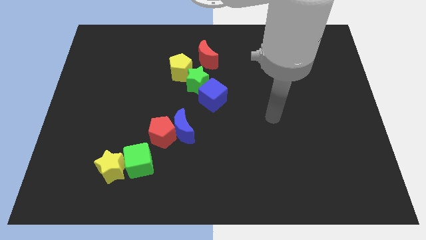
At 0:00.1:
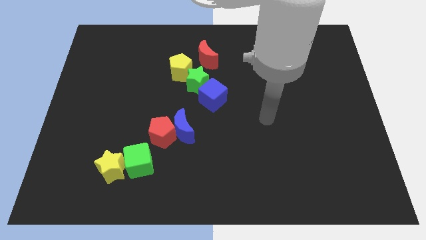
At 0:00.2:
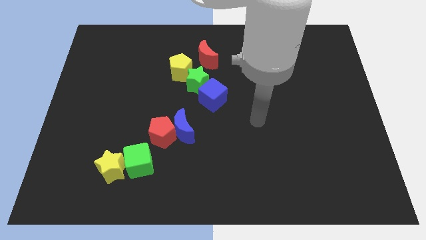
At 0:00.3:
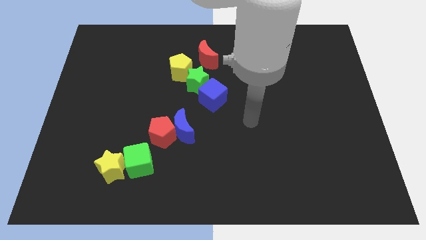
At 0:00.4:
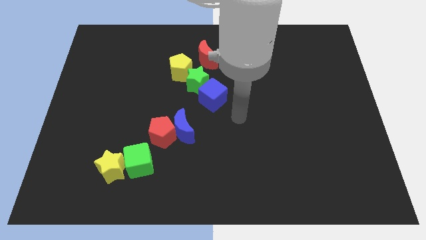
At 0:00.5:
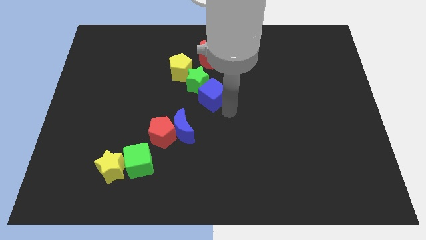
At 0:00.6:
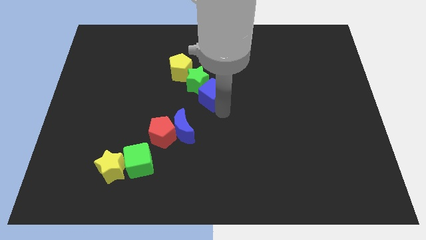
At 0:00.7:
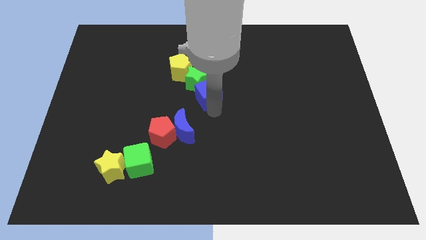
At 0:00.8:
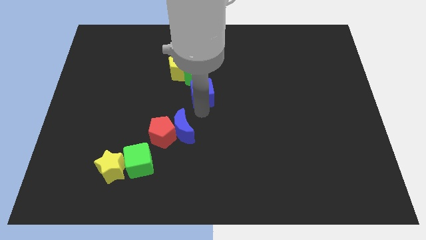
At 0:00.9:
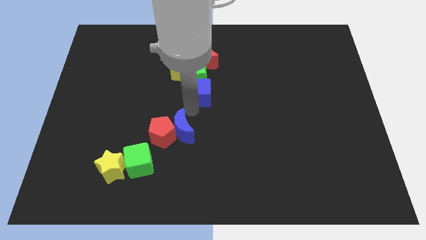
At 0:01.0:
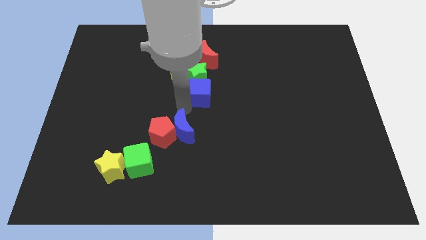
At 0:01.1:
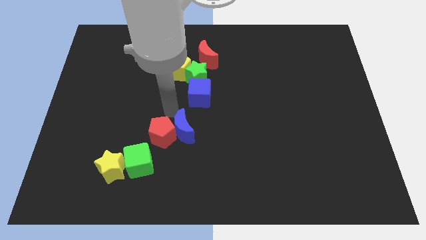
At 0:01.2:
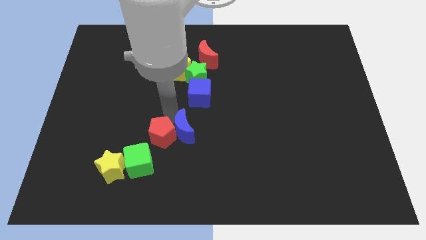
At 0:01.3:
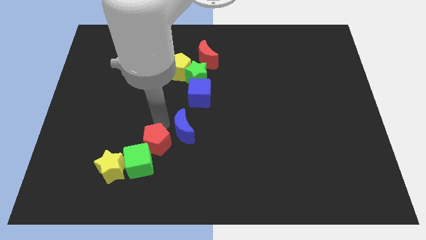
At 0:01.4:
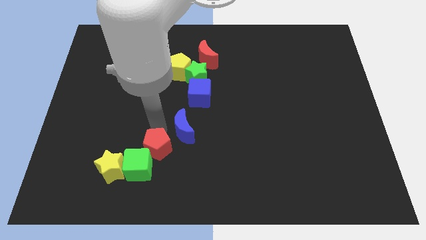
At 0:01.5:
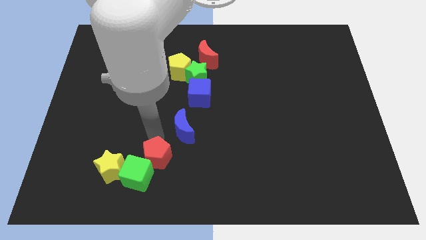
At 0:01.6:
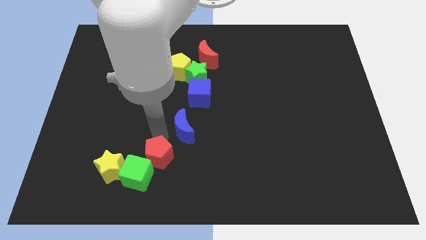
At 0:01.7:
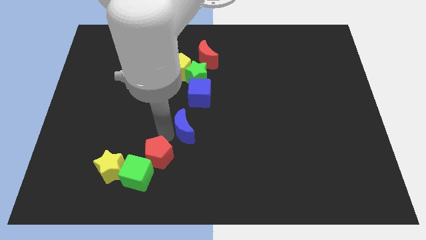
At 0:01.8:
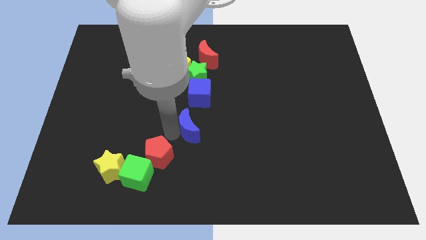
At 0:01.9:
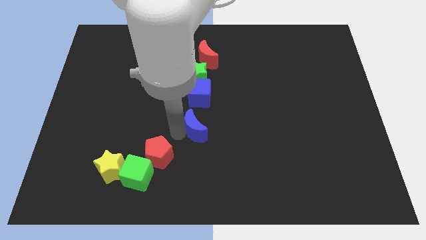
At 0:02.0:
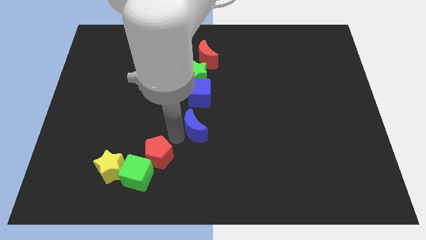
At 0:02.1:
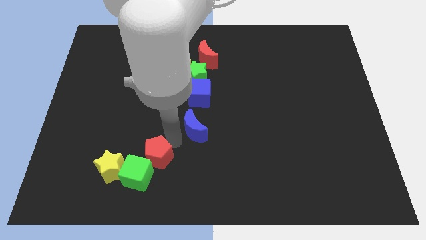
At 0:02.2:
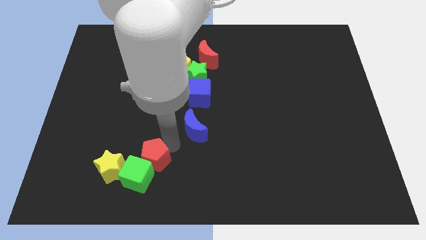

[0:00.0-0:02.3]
separate the blue moon from the red pentagon

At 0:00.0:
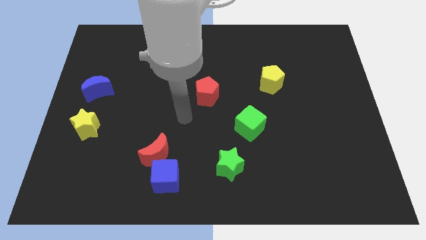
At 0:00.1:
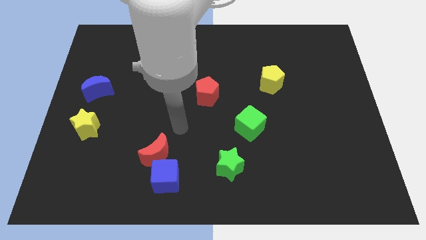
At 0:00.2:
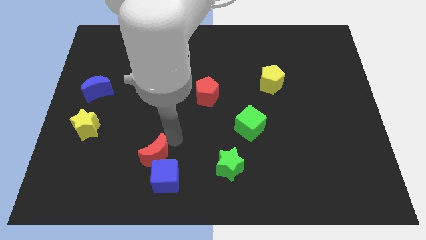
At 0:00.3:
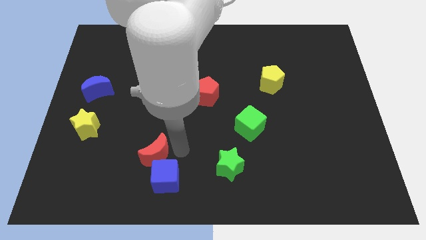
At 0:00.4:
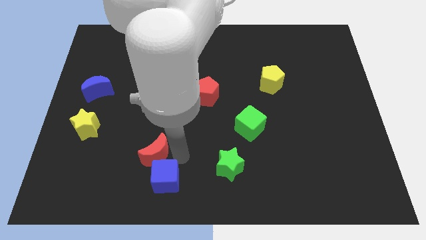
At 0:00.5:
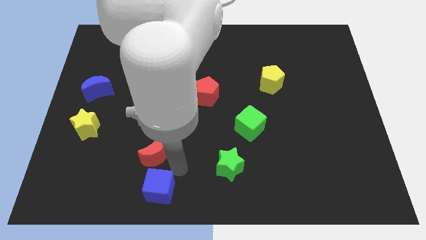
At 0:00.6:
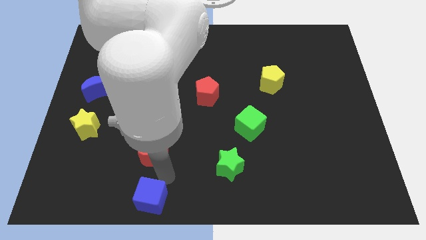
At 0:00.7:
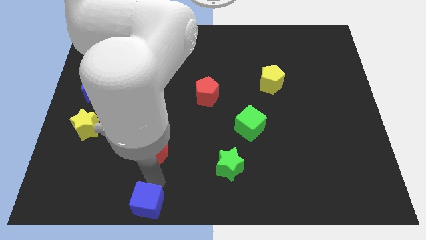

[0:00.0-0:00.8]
separate the red moon from the blue cube

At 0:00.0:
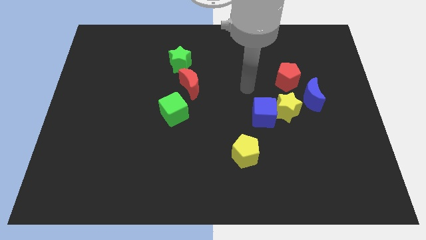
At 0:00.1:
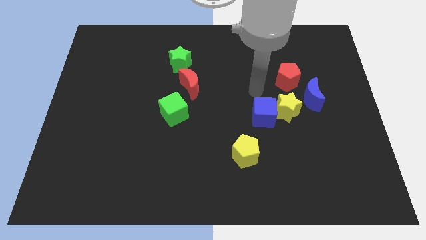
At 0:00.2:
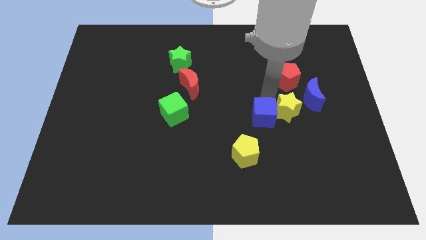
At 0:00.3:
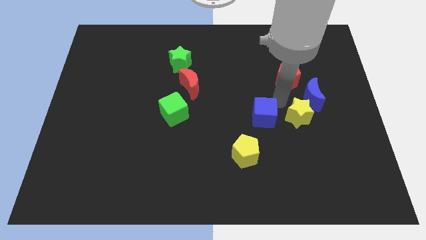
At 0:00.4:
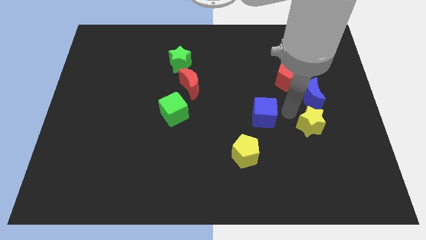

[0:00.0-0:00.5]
pull the blue cube apart from the yellow star

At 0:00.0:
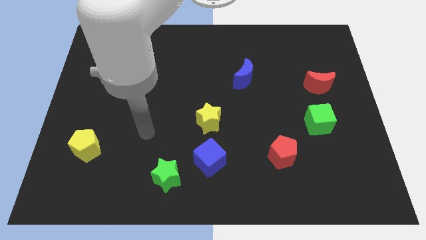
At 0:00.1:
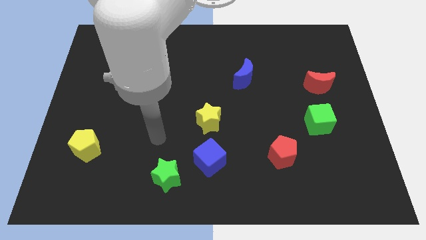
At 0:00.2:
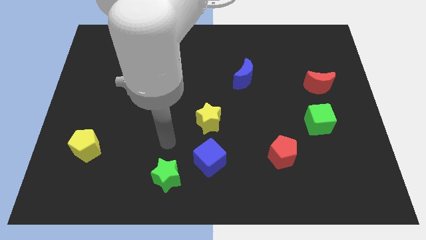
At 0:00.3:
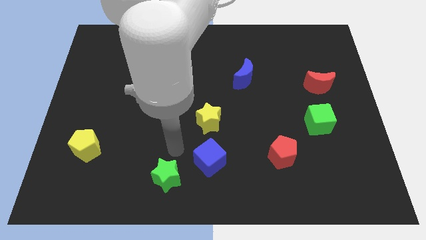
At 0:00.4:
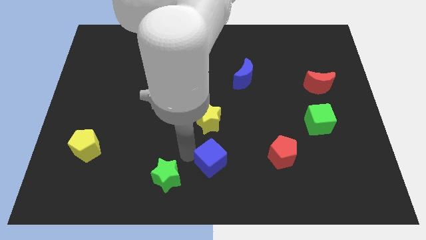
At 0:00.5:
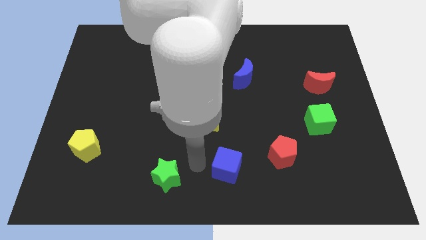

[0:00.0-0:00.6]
pull the green star apart from the blue cube

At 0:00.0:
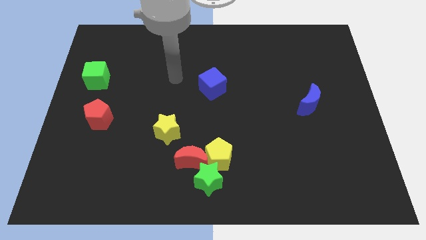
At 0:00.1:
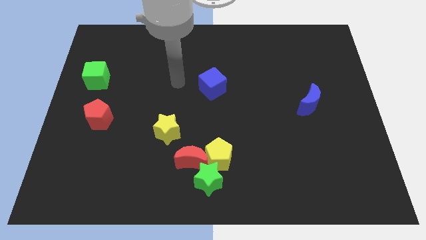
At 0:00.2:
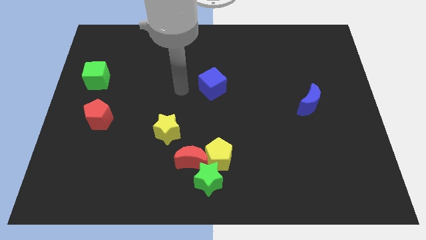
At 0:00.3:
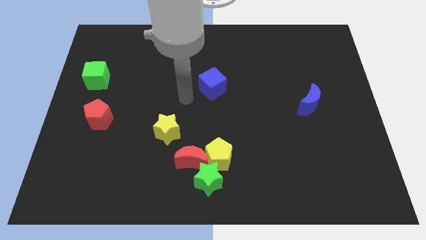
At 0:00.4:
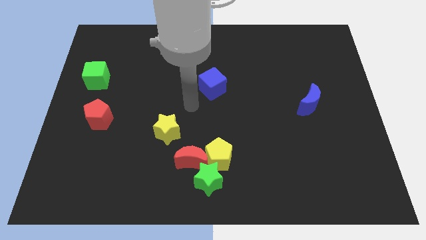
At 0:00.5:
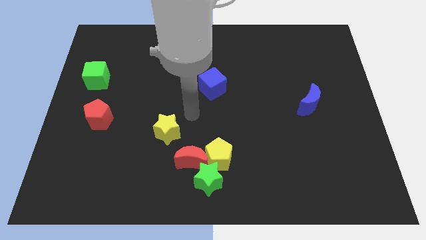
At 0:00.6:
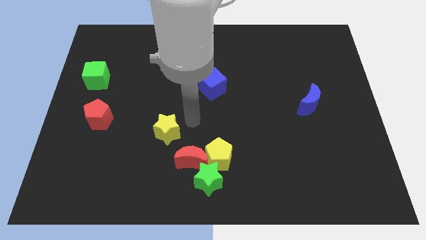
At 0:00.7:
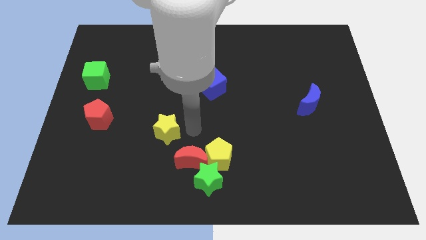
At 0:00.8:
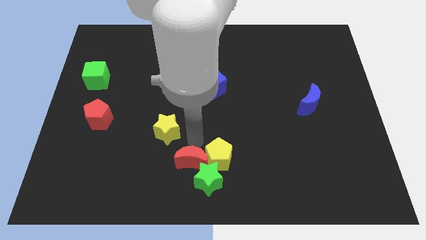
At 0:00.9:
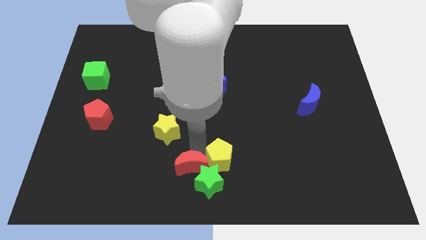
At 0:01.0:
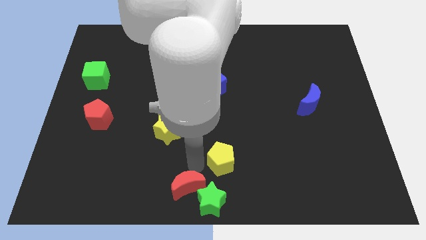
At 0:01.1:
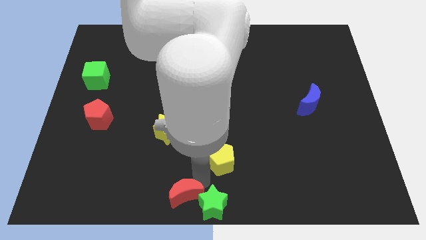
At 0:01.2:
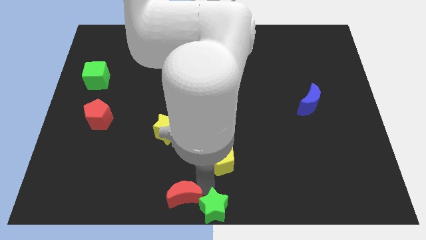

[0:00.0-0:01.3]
separate the yellow pentagon from the red moon and green star

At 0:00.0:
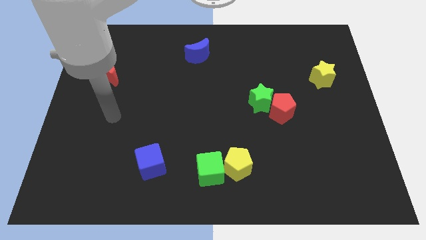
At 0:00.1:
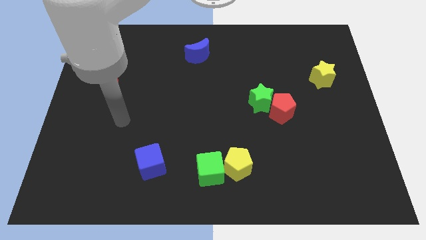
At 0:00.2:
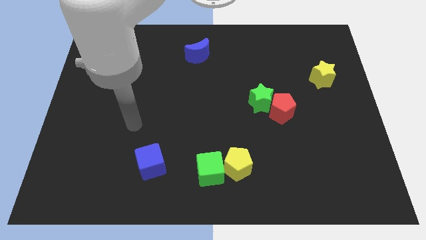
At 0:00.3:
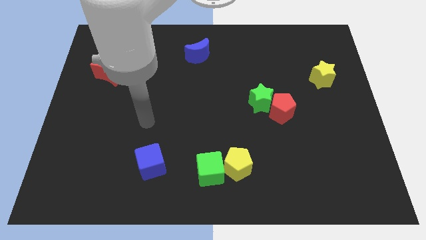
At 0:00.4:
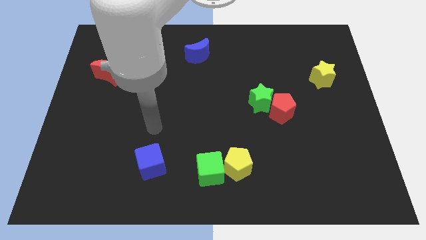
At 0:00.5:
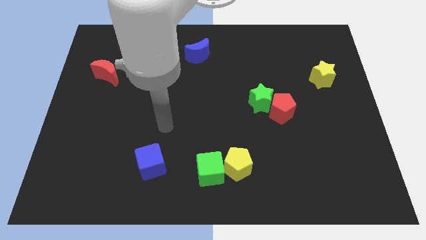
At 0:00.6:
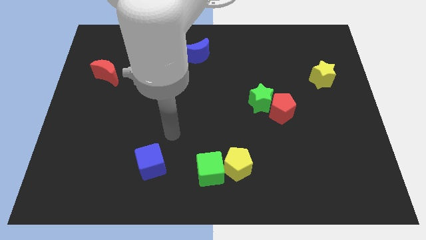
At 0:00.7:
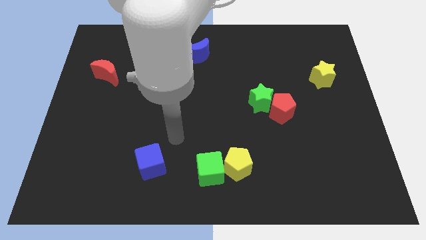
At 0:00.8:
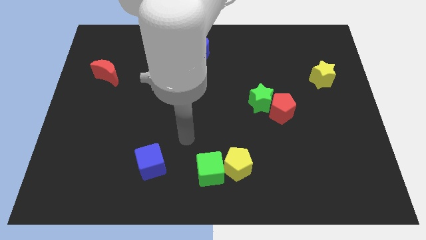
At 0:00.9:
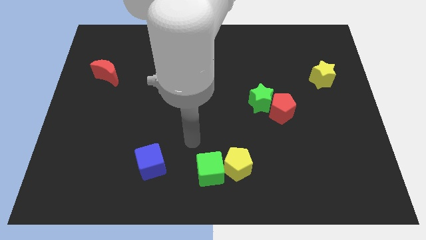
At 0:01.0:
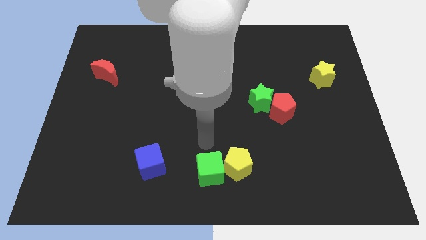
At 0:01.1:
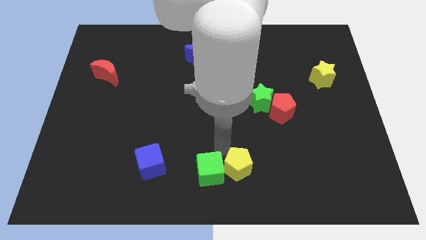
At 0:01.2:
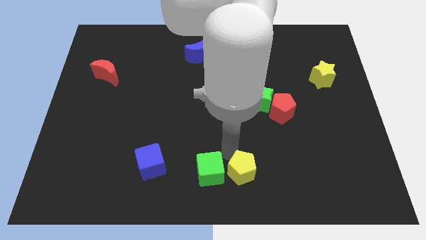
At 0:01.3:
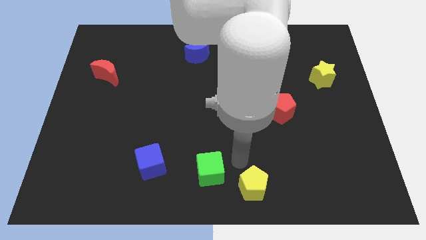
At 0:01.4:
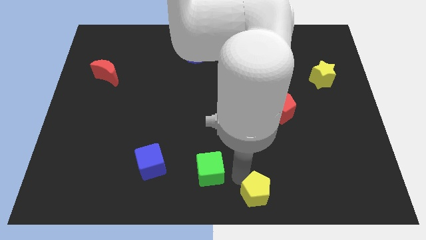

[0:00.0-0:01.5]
separate the green cube from the yellow pentagon

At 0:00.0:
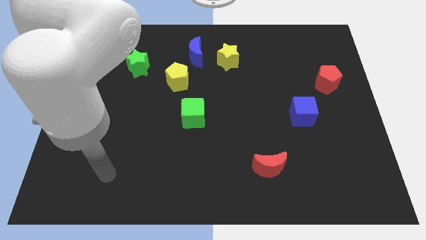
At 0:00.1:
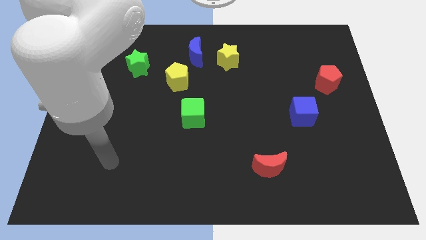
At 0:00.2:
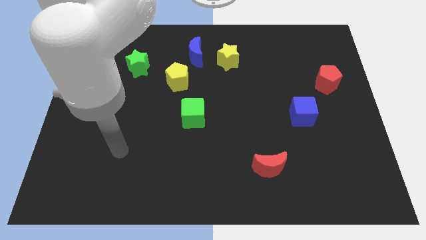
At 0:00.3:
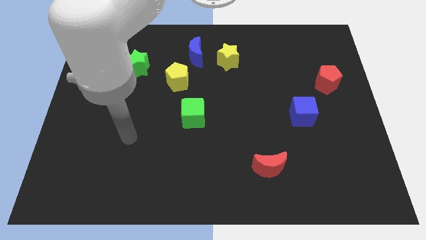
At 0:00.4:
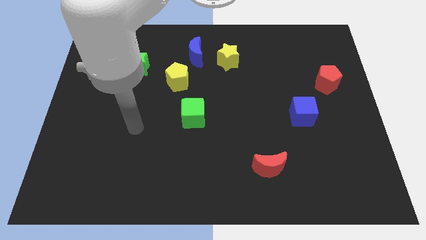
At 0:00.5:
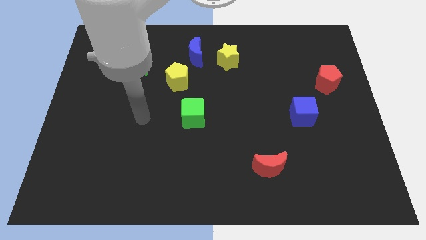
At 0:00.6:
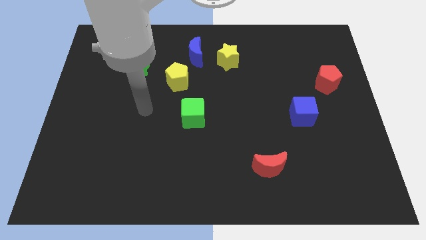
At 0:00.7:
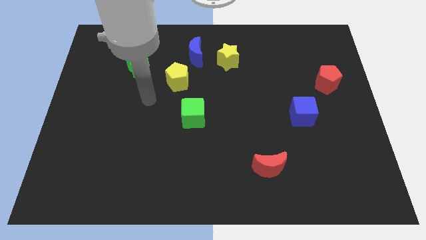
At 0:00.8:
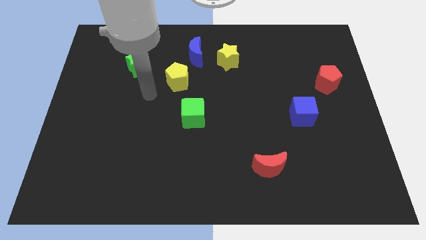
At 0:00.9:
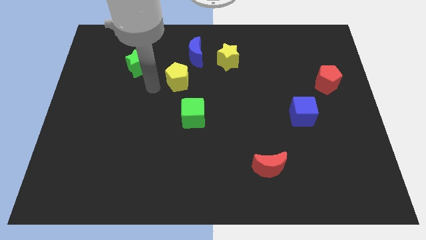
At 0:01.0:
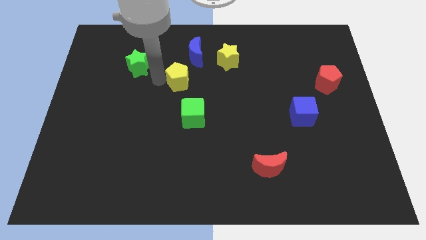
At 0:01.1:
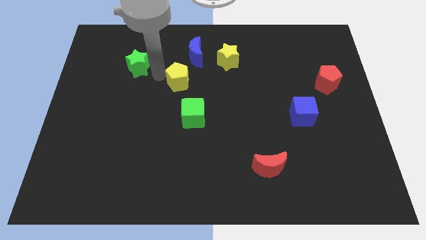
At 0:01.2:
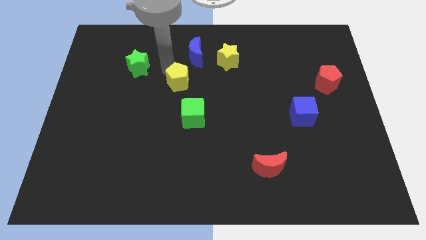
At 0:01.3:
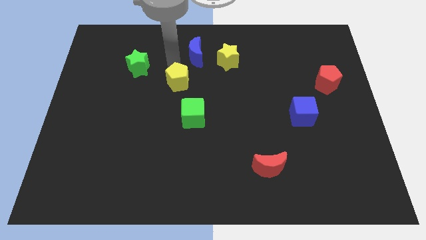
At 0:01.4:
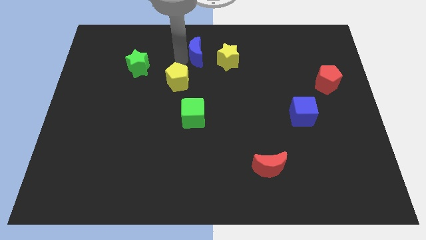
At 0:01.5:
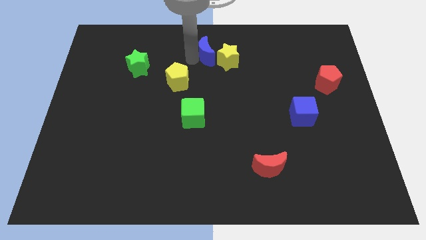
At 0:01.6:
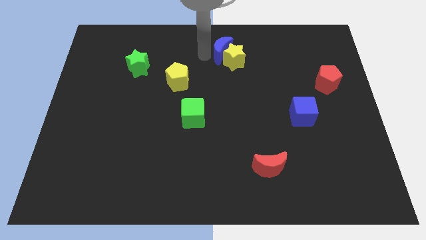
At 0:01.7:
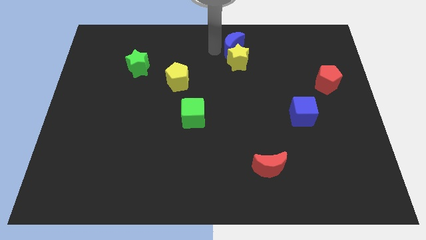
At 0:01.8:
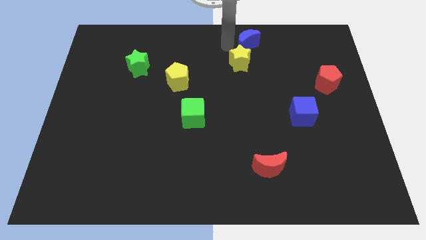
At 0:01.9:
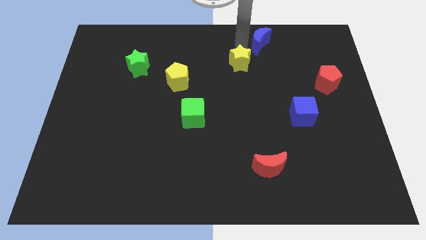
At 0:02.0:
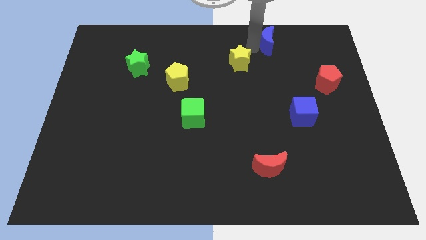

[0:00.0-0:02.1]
separate the yellow star from the blue moon

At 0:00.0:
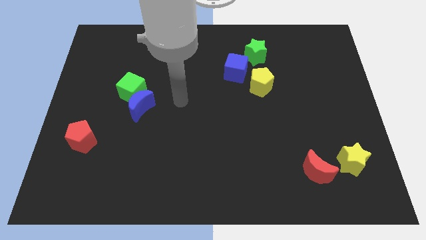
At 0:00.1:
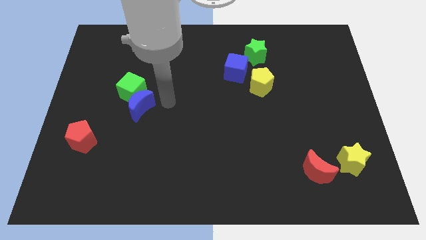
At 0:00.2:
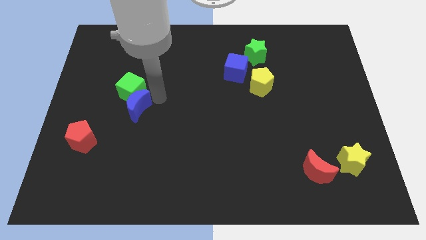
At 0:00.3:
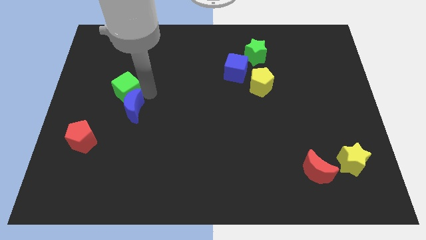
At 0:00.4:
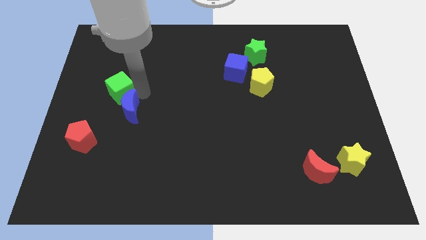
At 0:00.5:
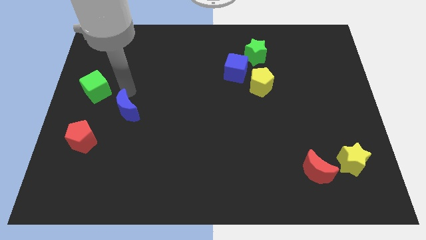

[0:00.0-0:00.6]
pull the blue moon apart from the green cube
